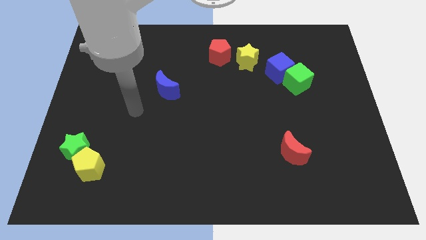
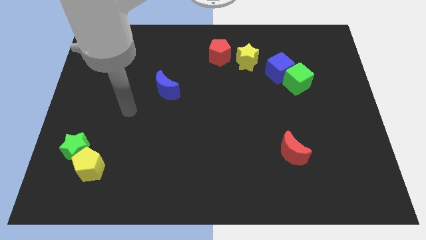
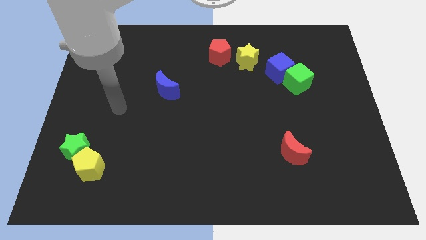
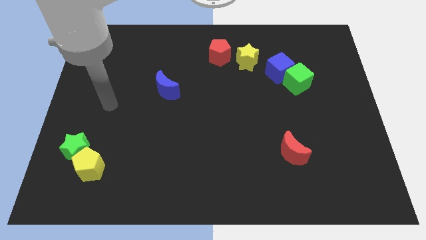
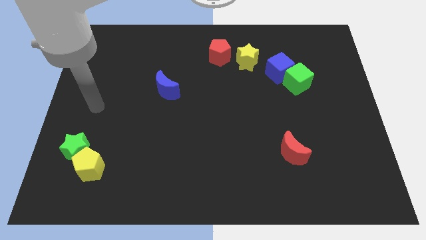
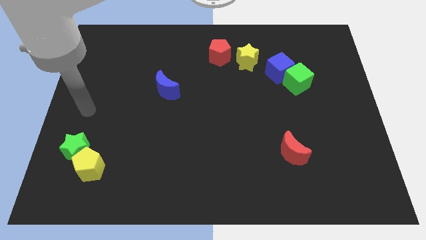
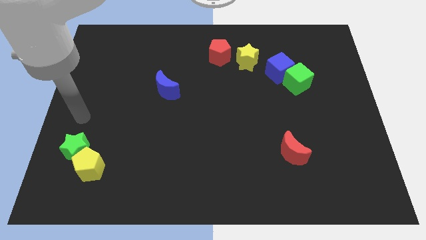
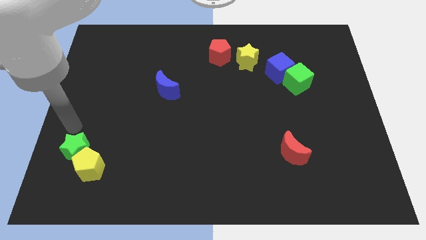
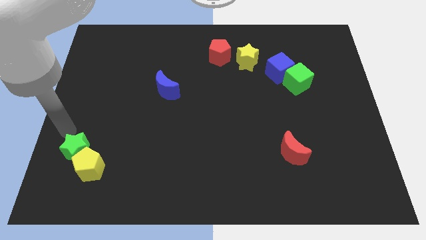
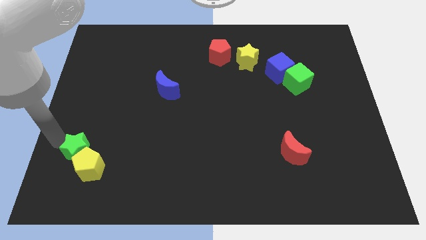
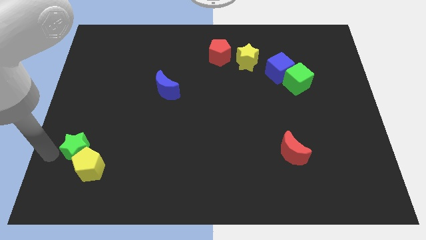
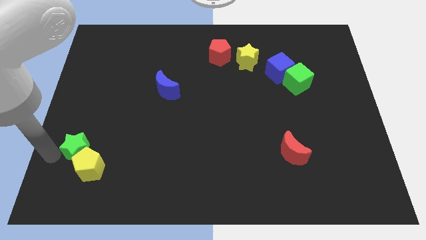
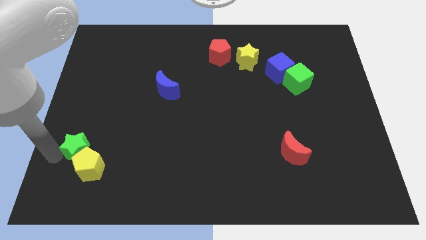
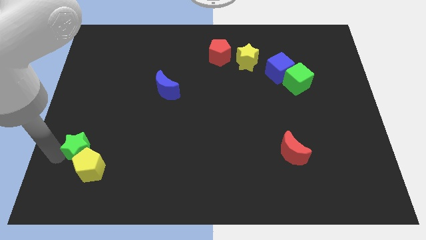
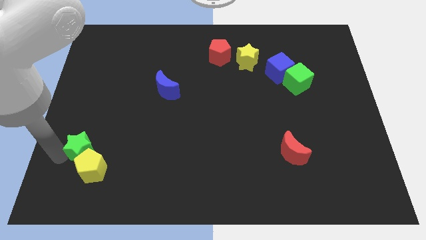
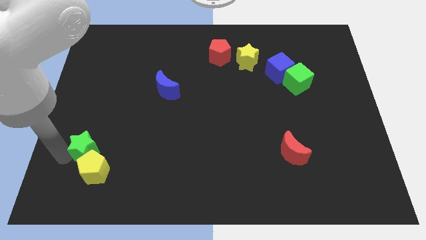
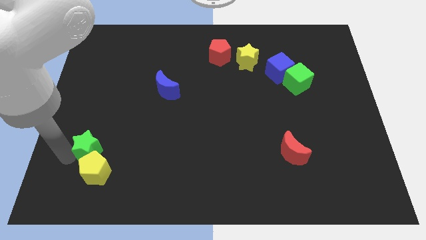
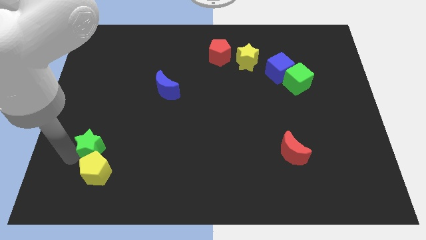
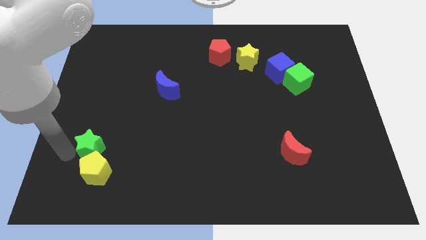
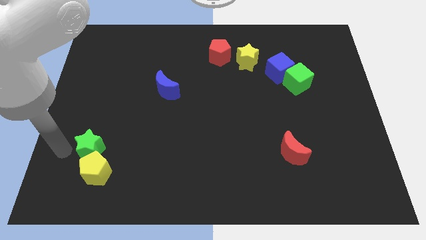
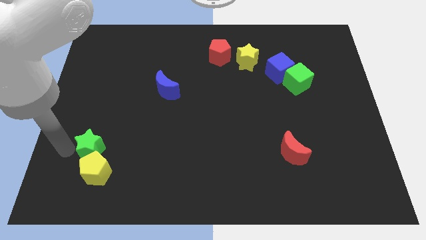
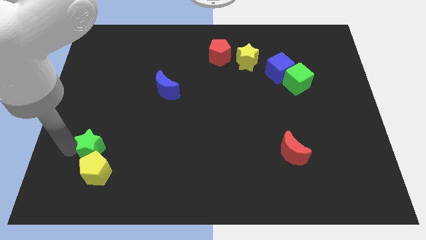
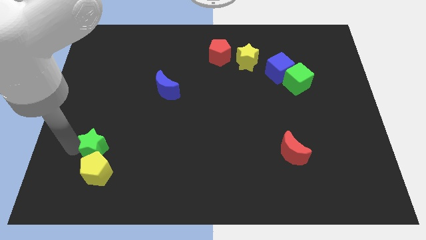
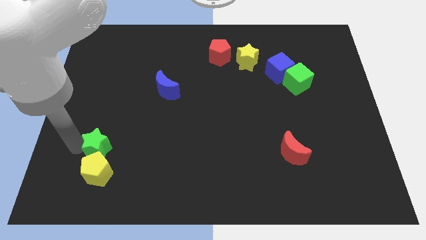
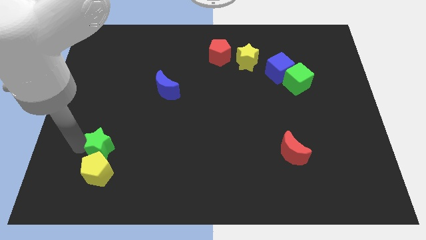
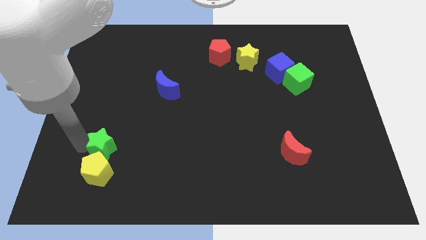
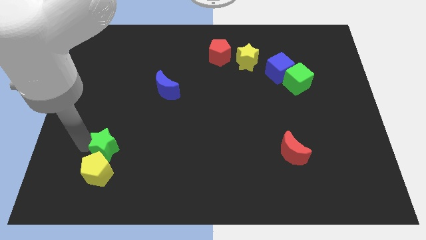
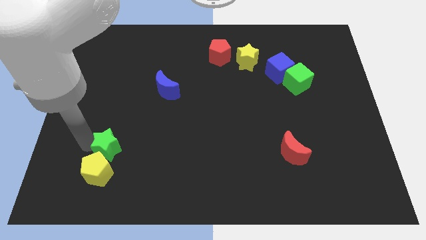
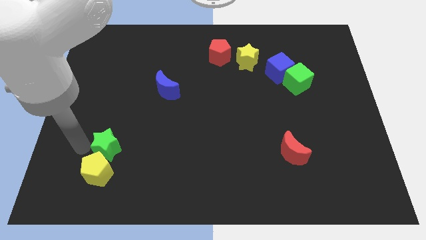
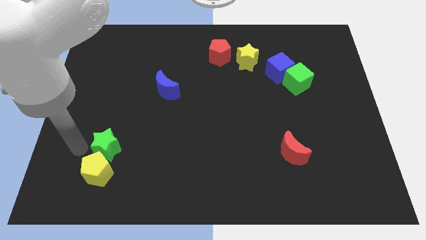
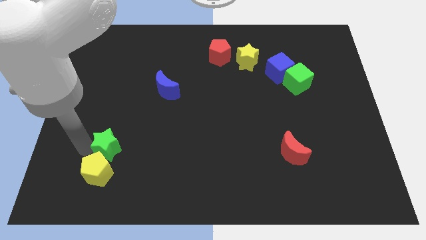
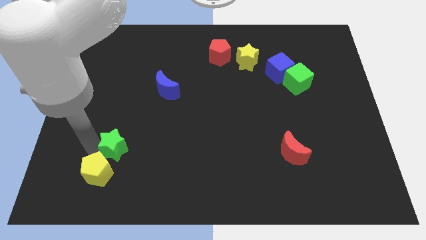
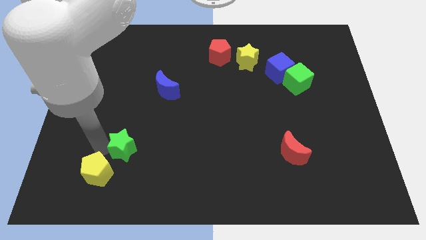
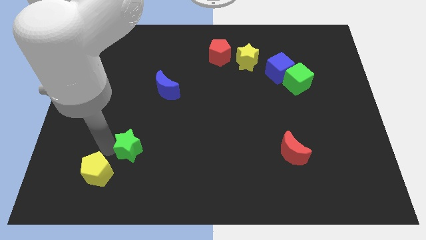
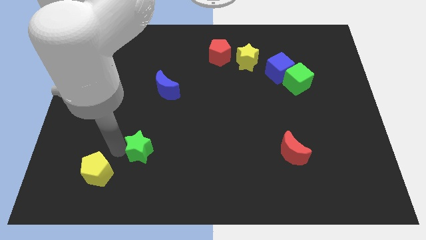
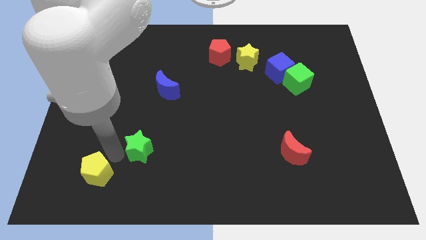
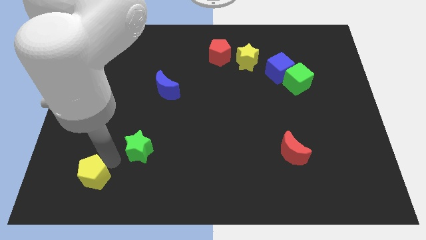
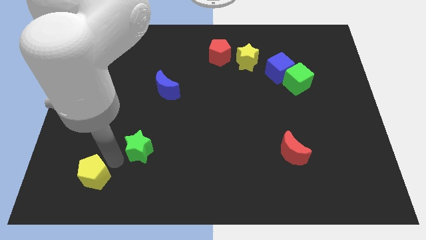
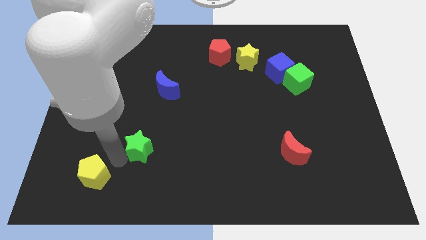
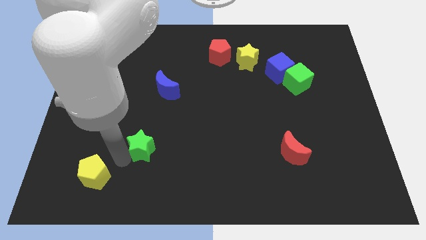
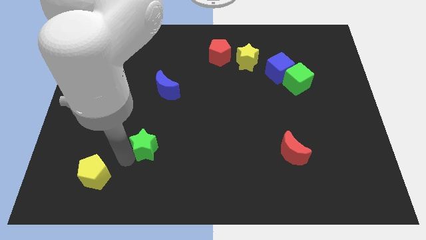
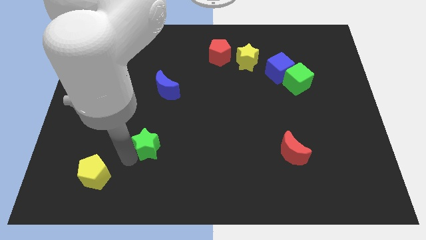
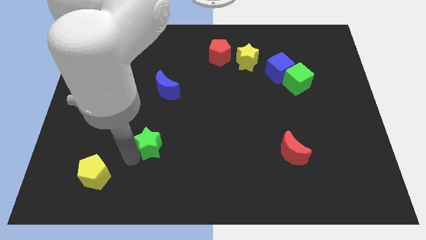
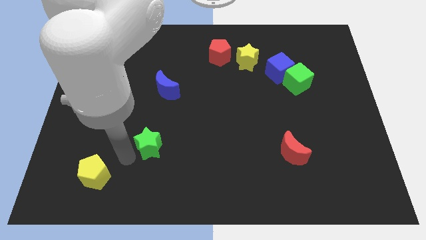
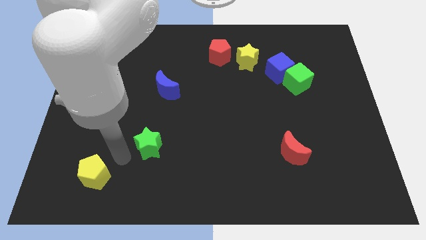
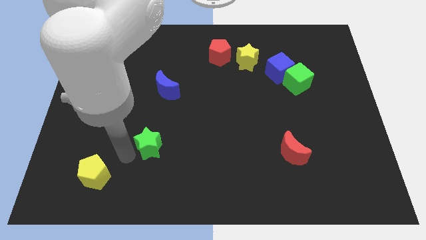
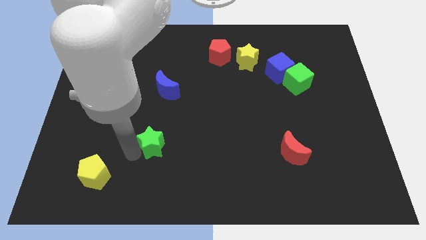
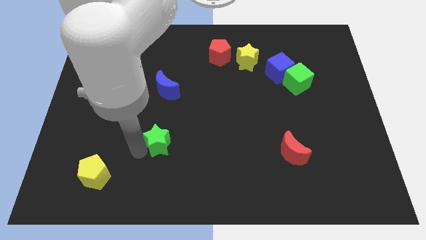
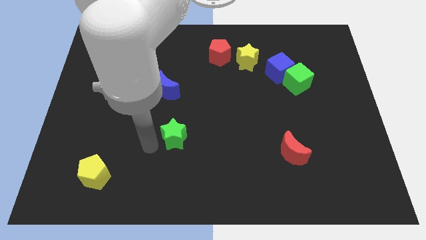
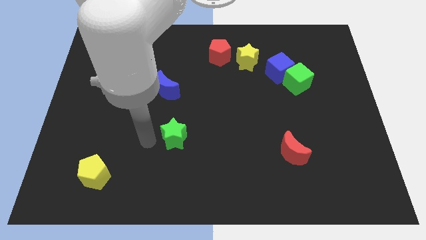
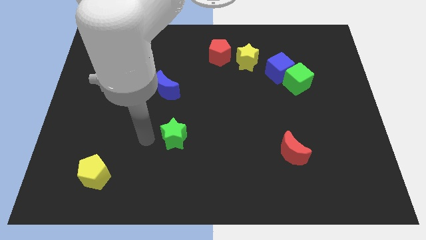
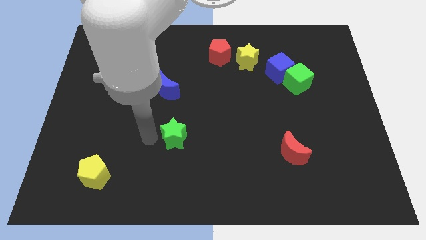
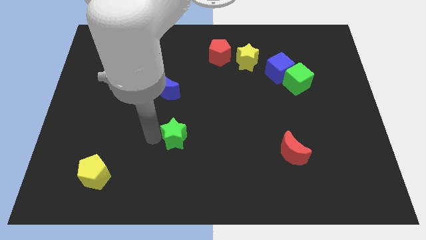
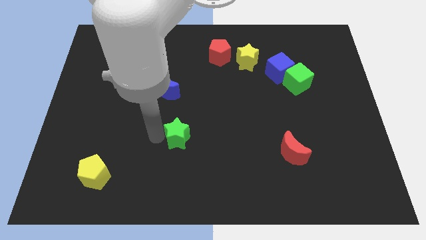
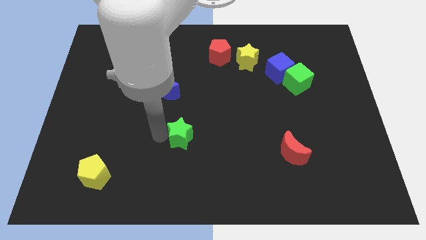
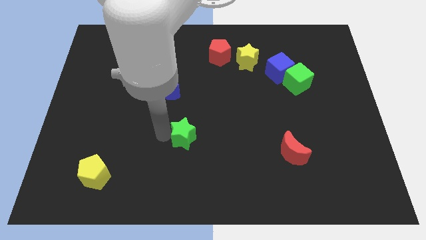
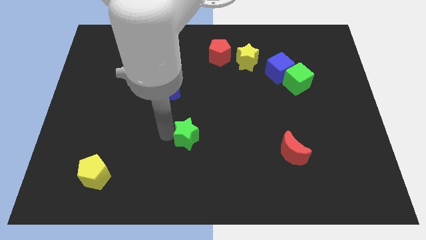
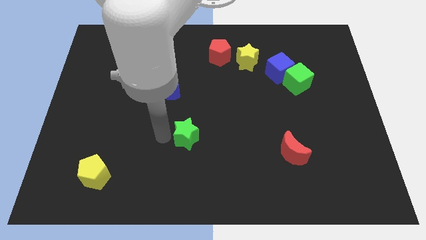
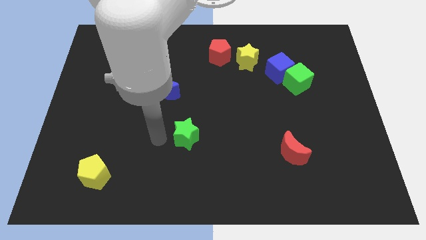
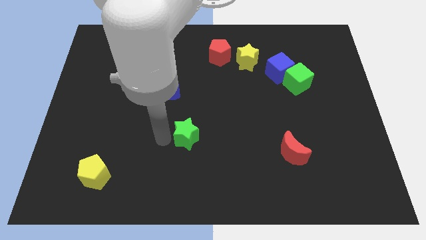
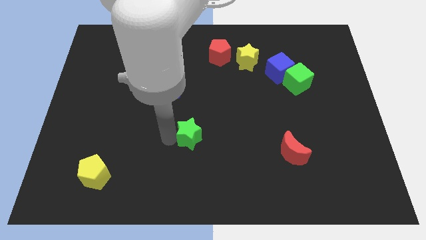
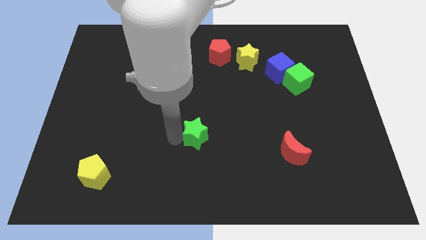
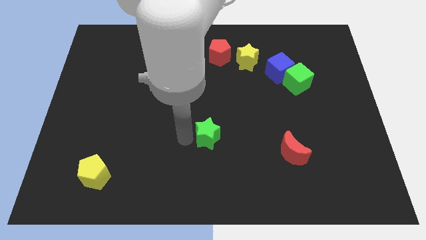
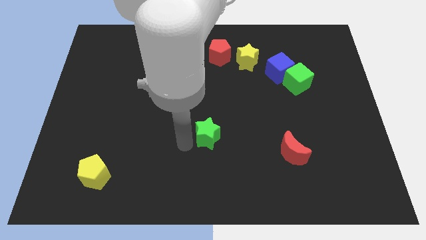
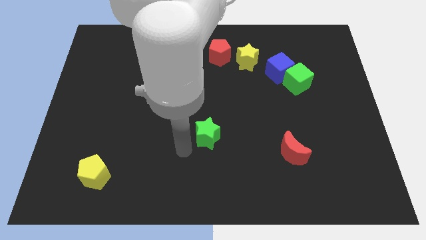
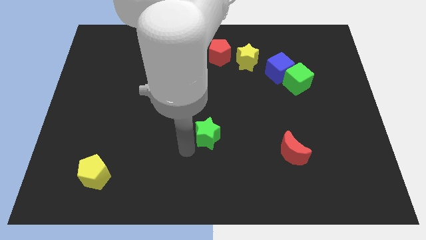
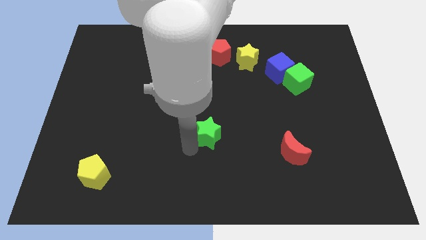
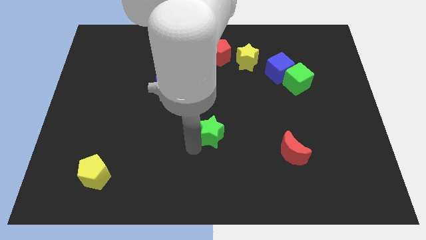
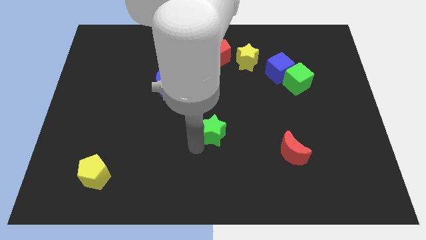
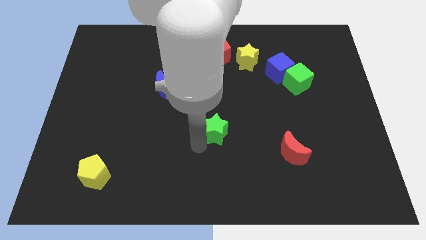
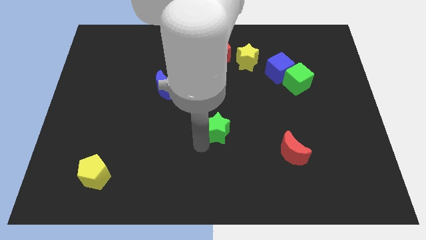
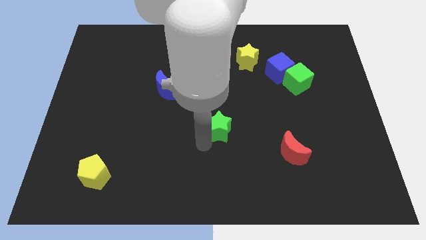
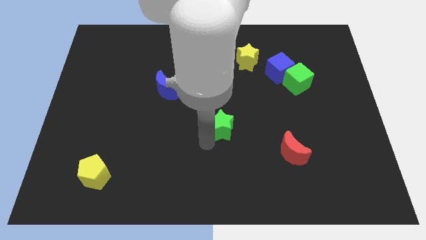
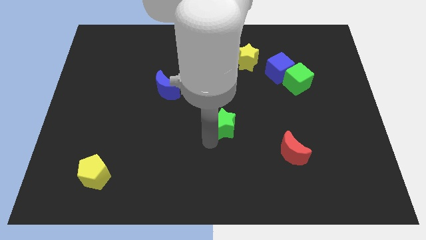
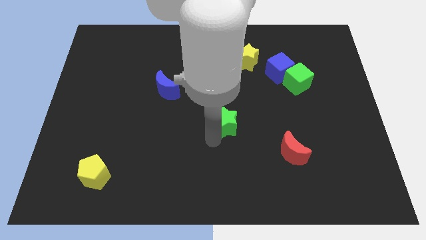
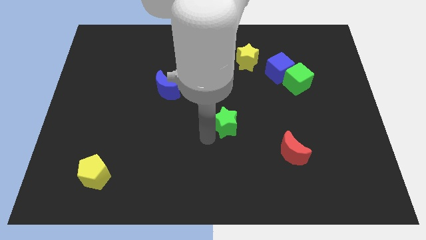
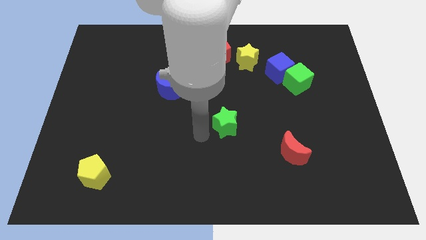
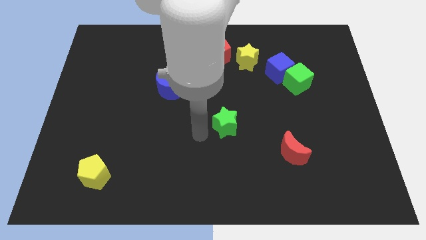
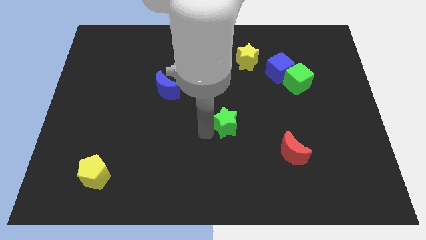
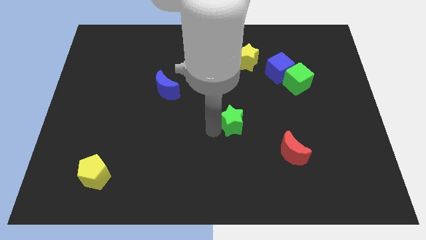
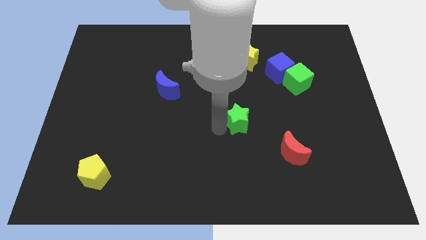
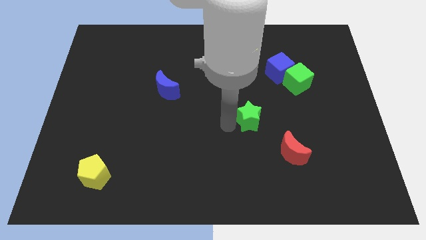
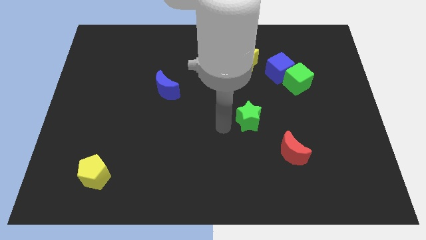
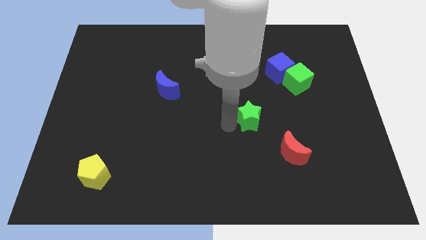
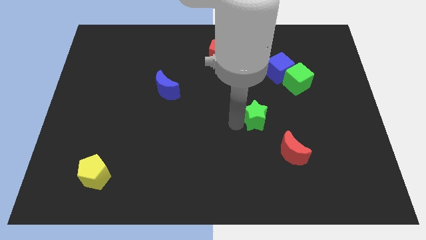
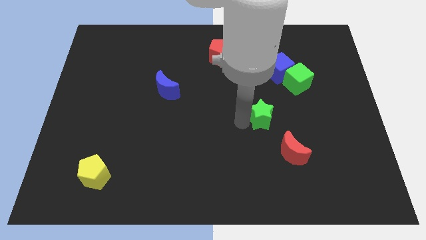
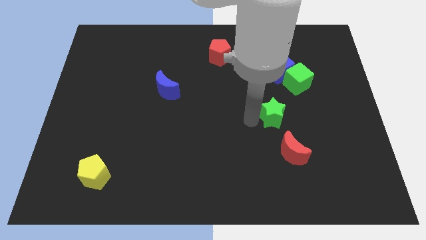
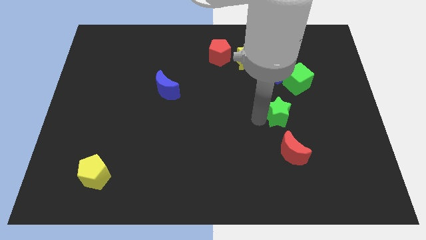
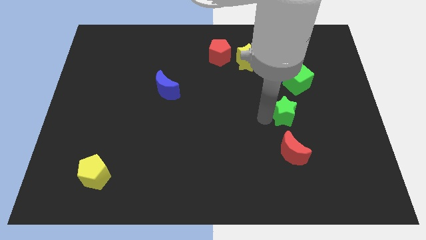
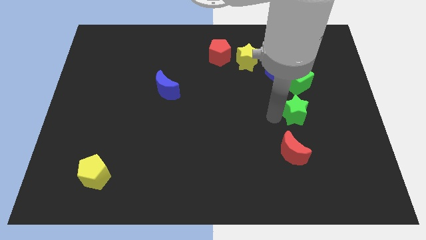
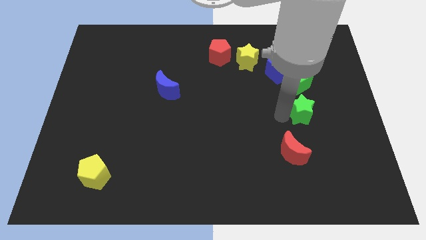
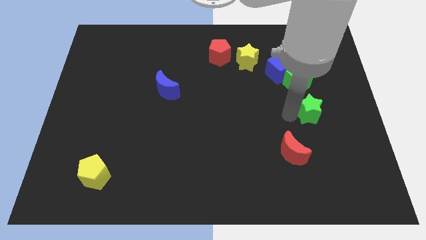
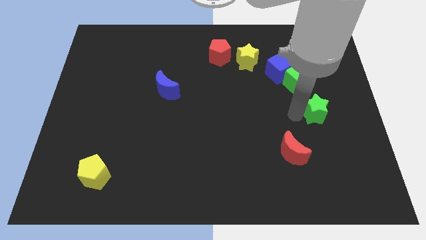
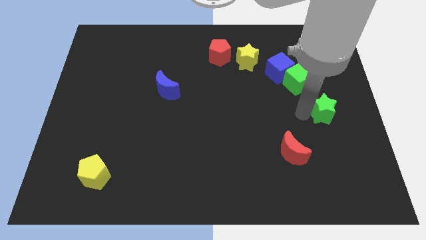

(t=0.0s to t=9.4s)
put the green star to the right side
